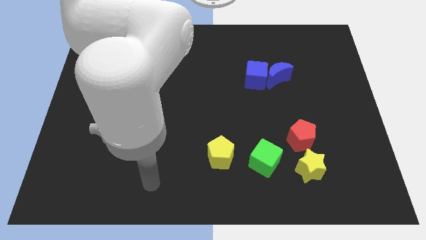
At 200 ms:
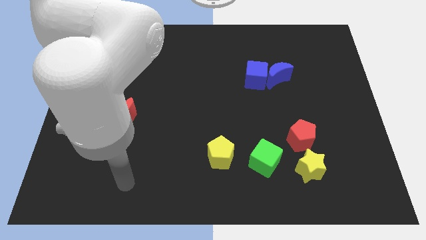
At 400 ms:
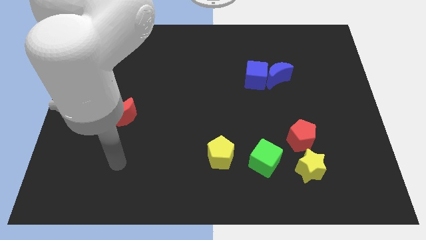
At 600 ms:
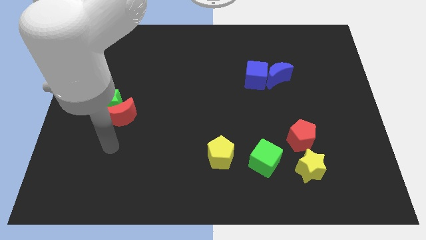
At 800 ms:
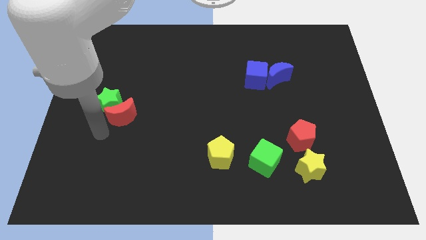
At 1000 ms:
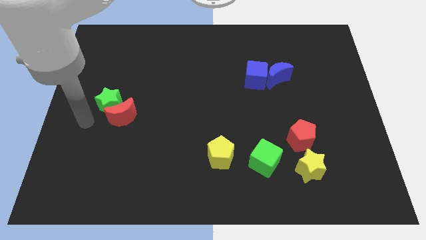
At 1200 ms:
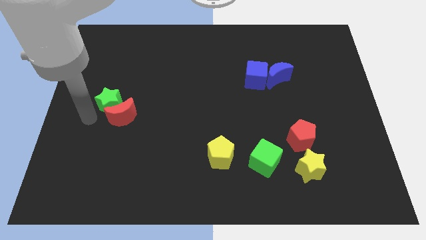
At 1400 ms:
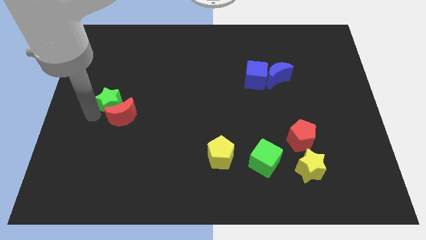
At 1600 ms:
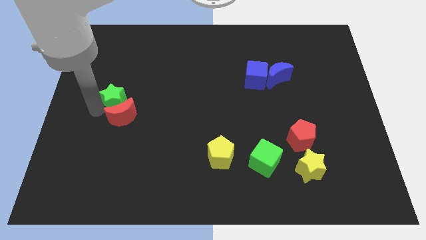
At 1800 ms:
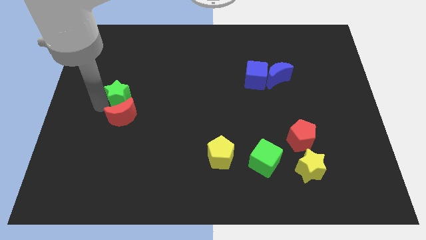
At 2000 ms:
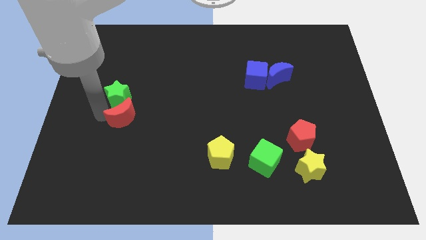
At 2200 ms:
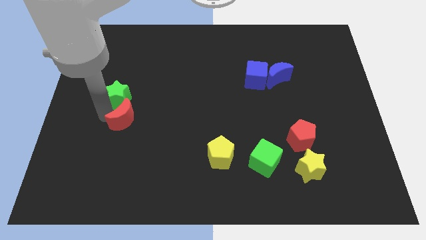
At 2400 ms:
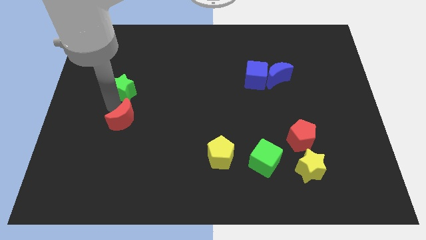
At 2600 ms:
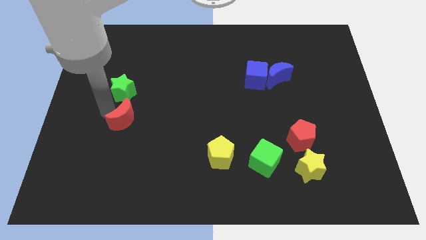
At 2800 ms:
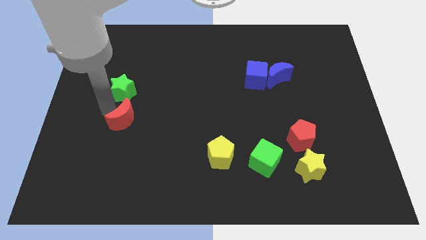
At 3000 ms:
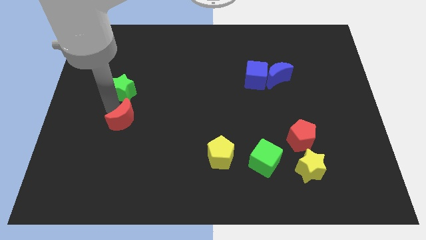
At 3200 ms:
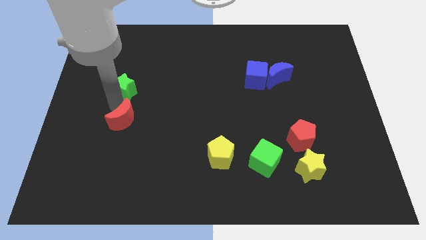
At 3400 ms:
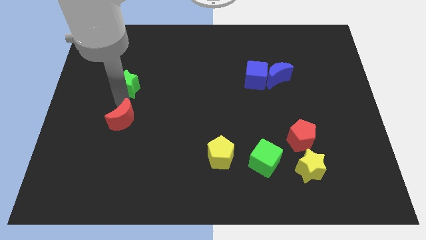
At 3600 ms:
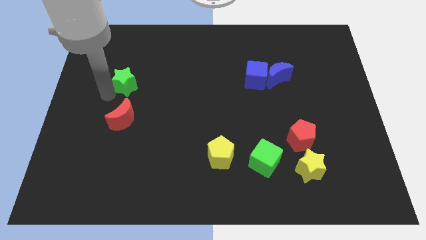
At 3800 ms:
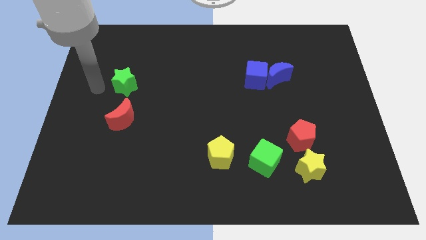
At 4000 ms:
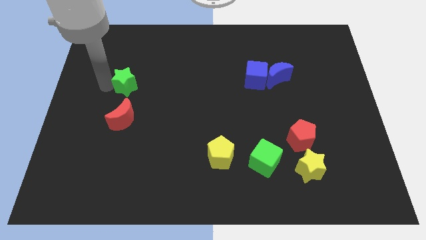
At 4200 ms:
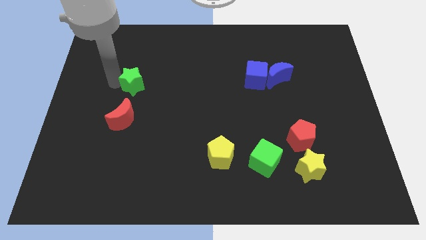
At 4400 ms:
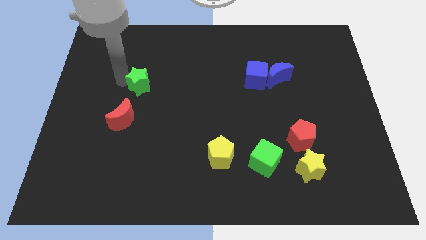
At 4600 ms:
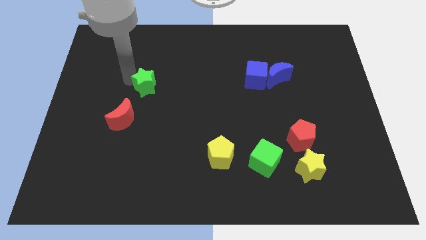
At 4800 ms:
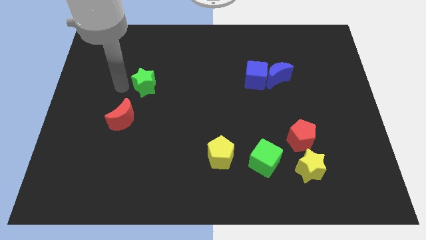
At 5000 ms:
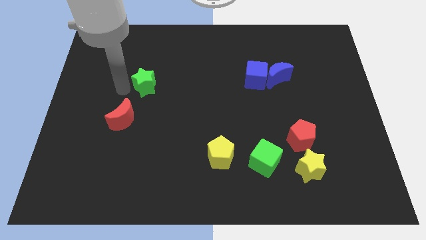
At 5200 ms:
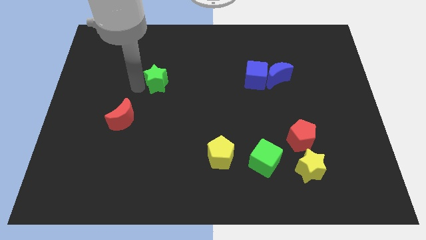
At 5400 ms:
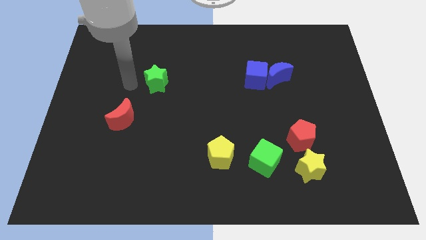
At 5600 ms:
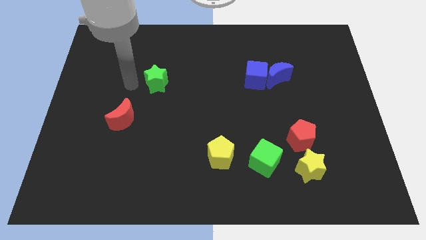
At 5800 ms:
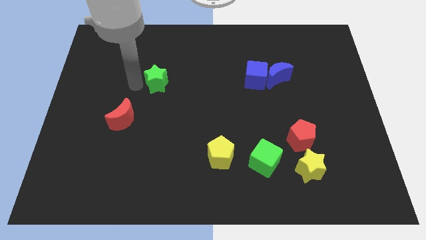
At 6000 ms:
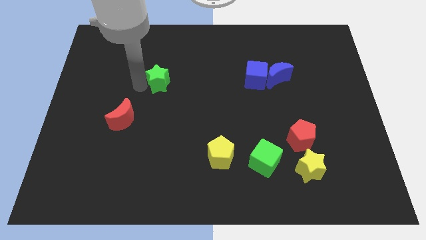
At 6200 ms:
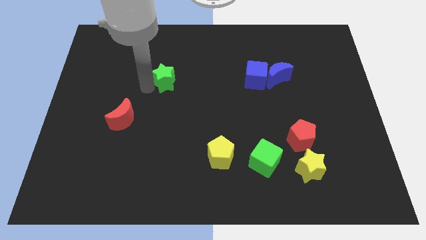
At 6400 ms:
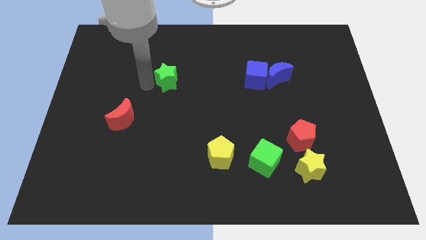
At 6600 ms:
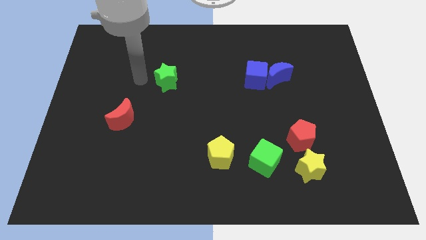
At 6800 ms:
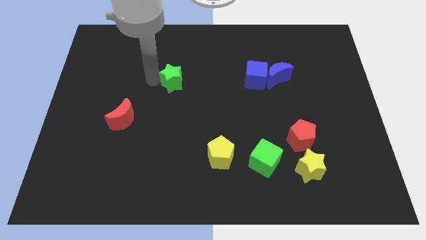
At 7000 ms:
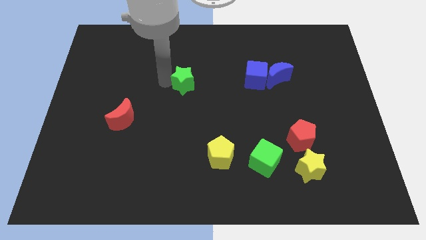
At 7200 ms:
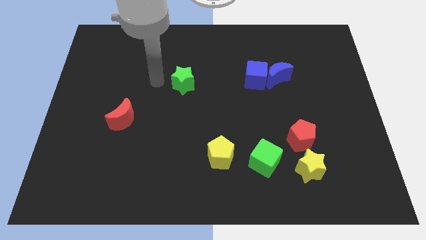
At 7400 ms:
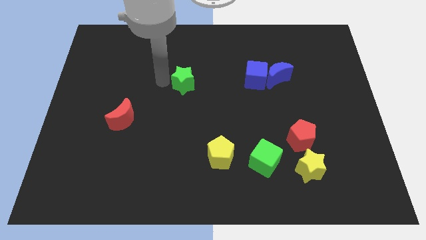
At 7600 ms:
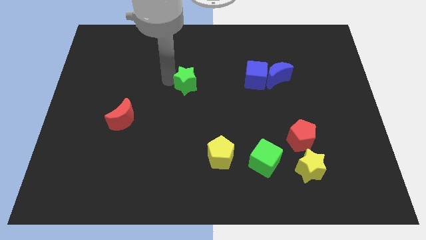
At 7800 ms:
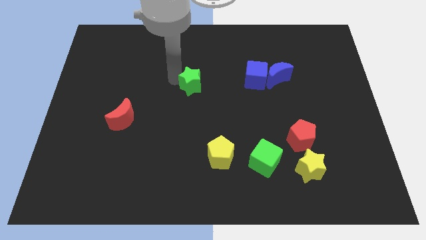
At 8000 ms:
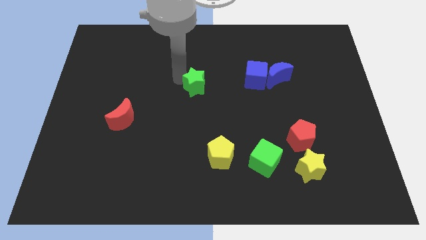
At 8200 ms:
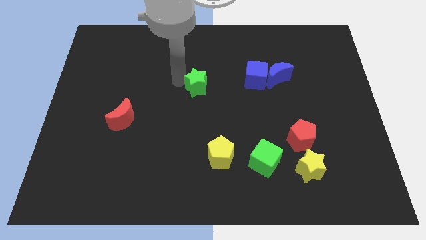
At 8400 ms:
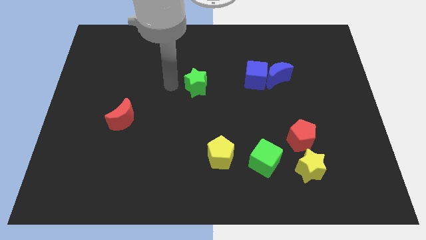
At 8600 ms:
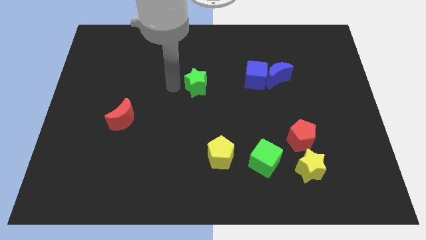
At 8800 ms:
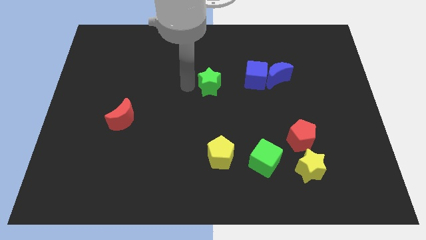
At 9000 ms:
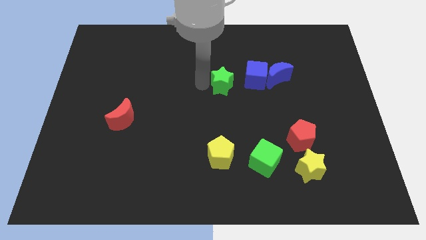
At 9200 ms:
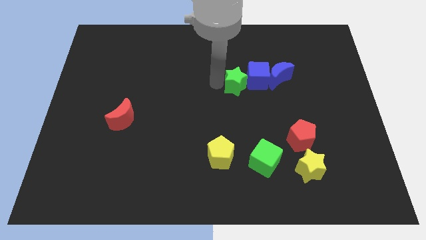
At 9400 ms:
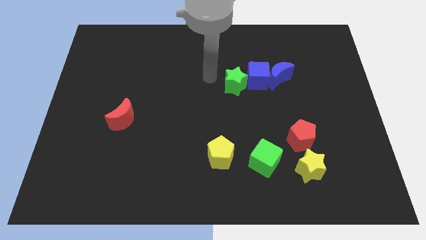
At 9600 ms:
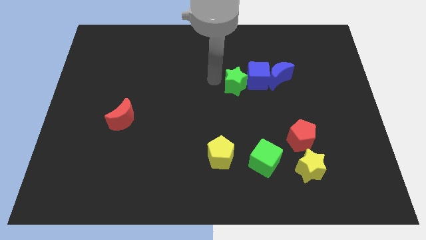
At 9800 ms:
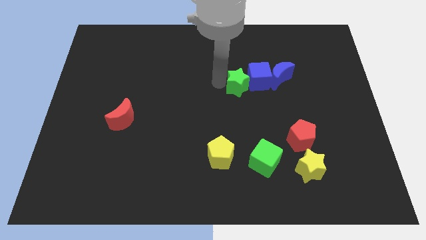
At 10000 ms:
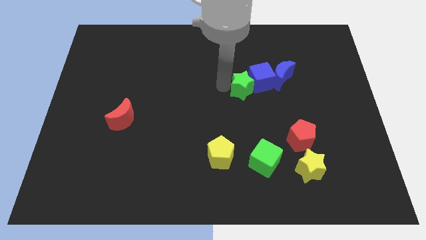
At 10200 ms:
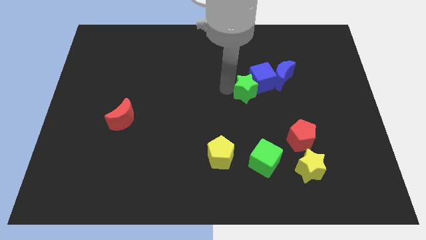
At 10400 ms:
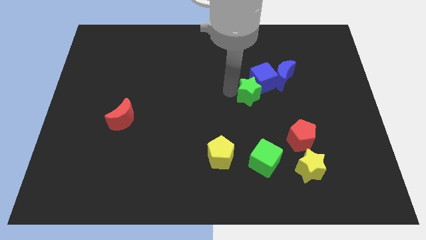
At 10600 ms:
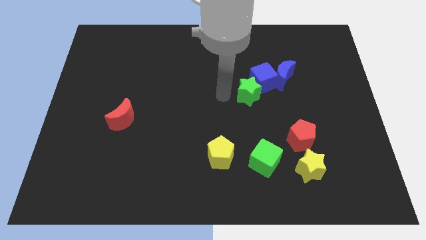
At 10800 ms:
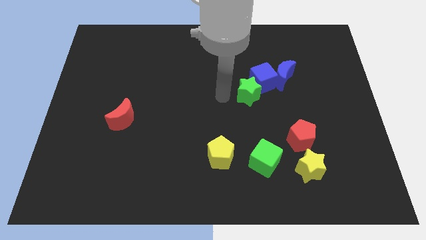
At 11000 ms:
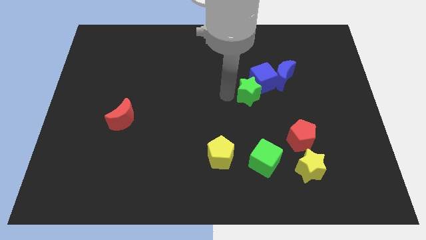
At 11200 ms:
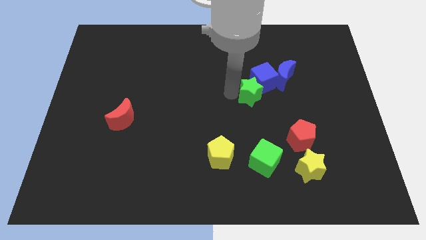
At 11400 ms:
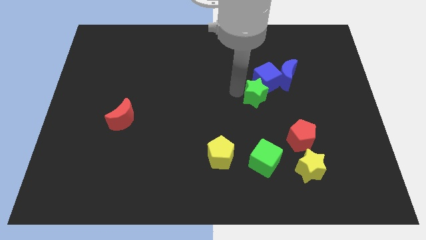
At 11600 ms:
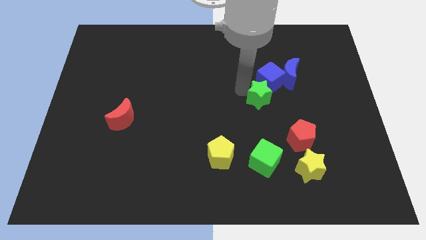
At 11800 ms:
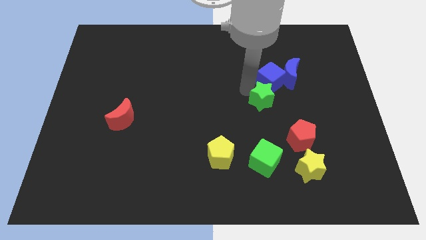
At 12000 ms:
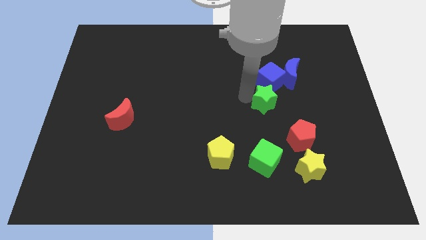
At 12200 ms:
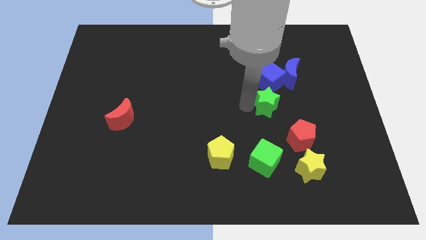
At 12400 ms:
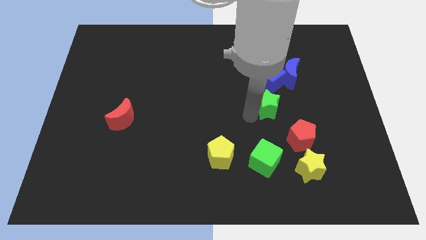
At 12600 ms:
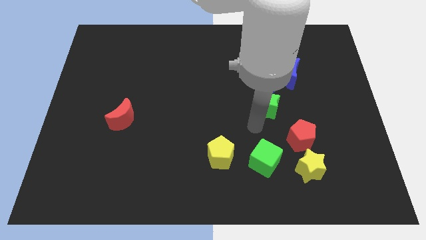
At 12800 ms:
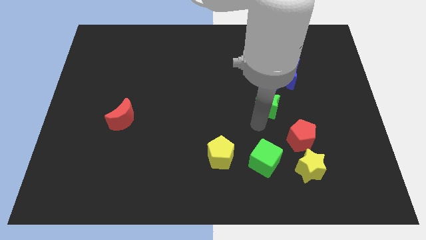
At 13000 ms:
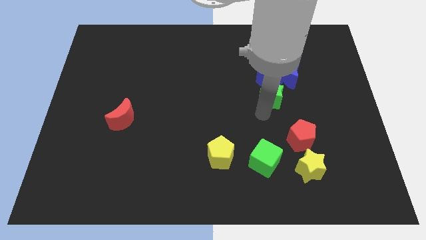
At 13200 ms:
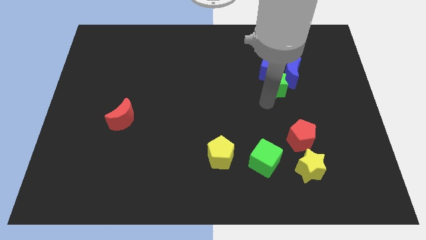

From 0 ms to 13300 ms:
put the green star close to the blue moon
